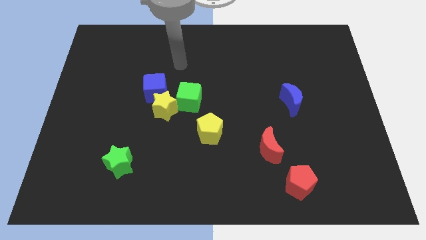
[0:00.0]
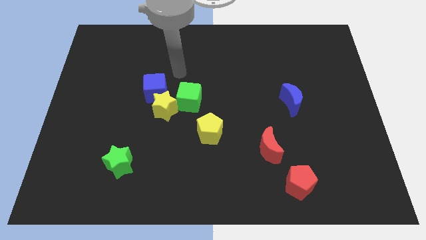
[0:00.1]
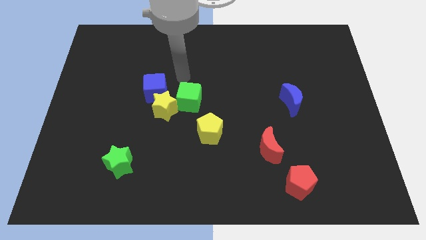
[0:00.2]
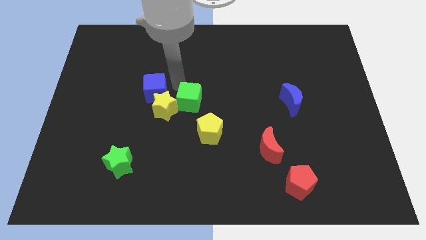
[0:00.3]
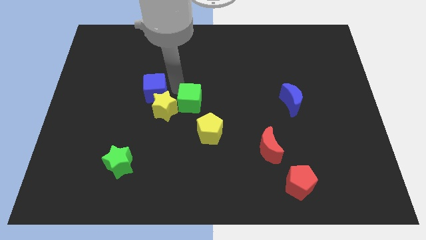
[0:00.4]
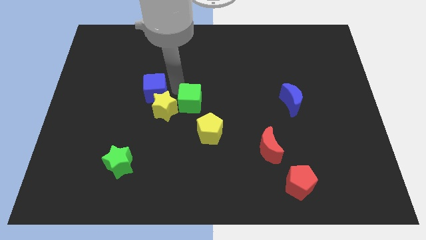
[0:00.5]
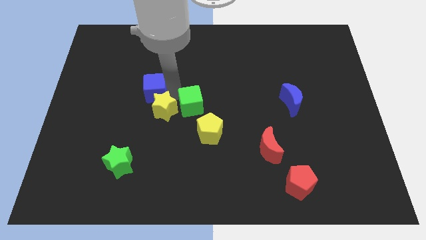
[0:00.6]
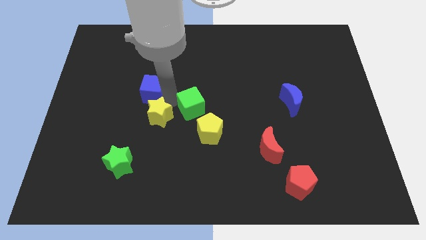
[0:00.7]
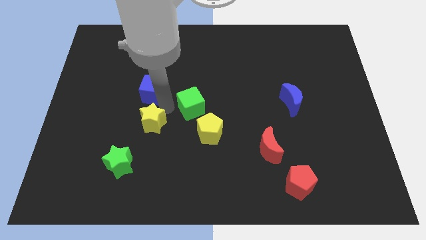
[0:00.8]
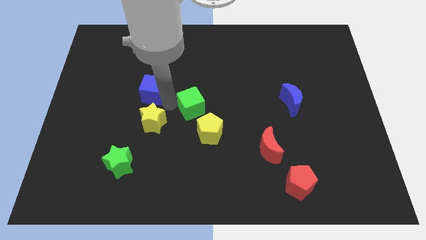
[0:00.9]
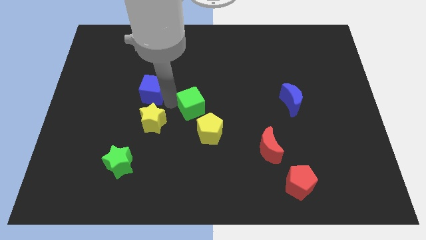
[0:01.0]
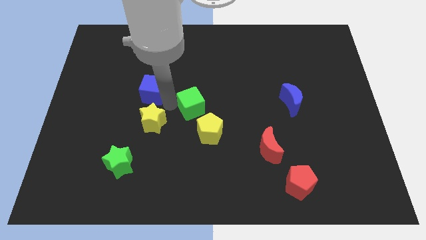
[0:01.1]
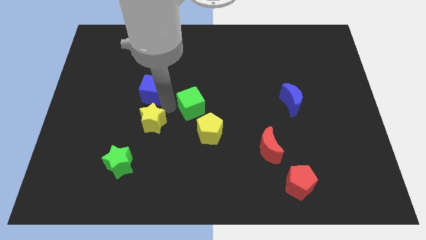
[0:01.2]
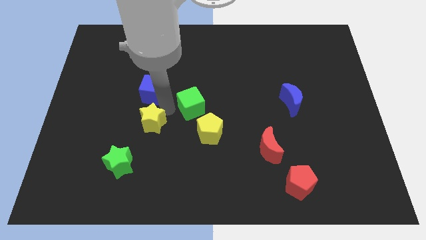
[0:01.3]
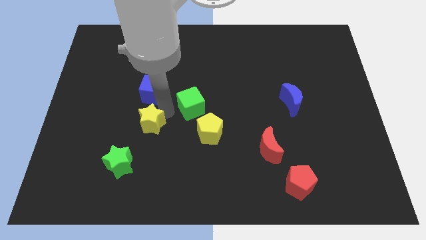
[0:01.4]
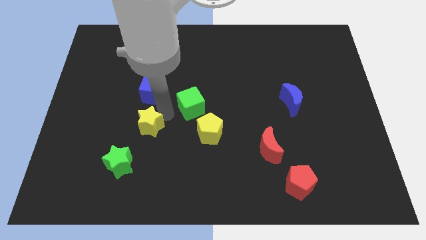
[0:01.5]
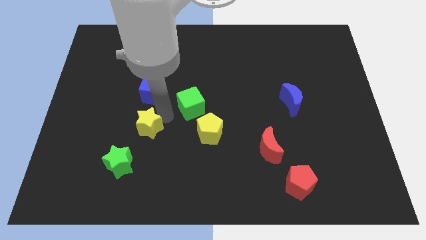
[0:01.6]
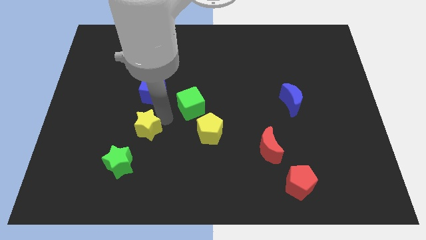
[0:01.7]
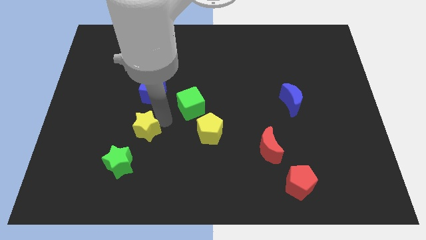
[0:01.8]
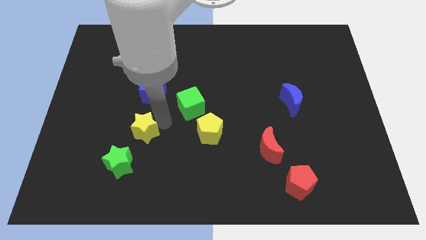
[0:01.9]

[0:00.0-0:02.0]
separate the yellow star from the blue cube and green cube

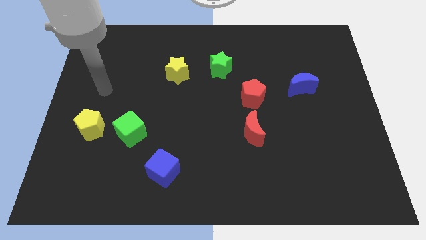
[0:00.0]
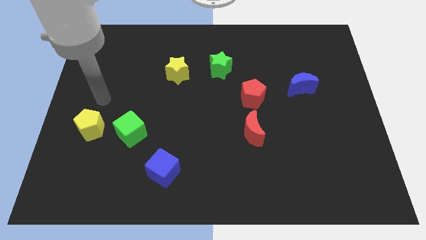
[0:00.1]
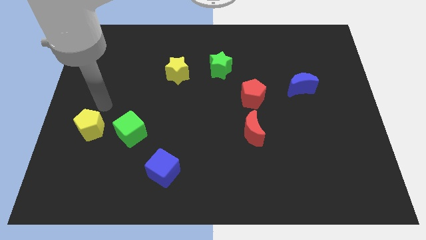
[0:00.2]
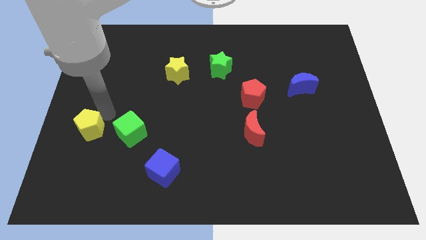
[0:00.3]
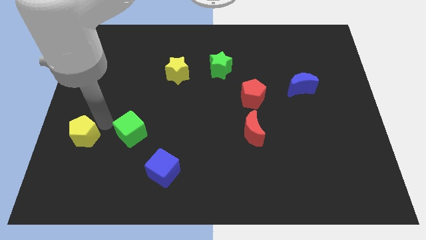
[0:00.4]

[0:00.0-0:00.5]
move the green cube away from the yellow pentagon

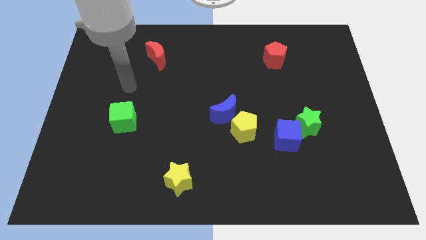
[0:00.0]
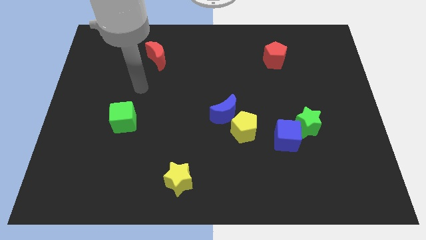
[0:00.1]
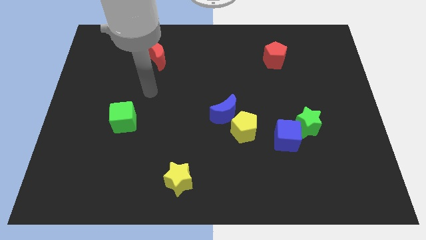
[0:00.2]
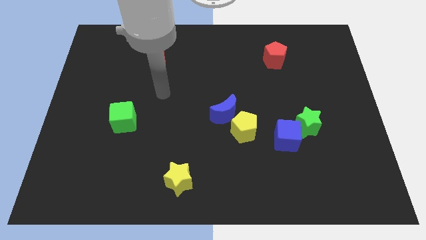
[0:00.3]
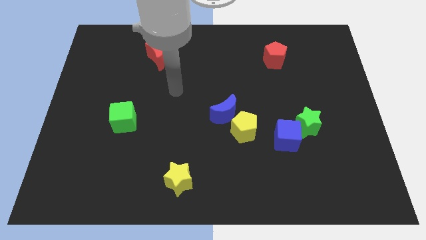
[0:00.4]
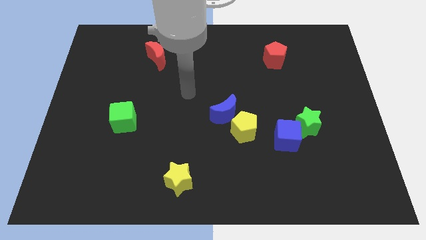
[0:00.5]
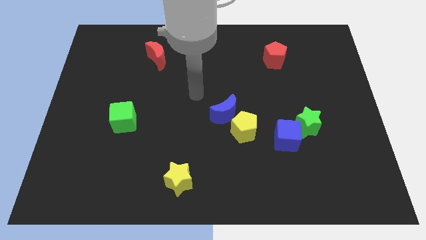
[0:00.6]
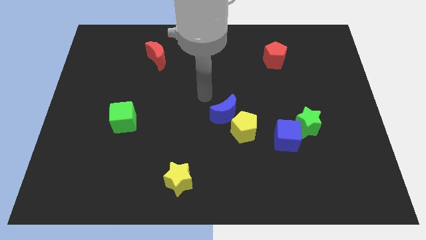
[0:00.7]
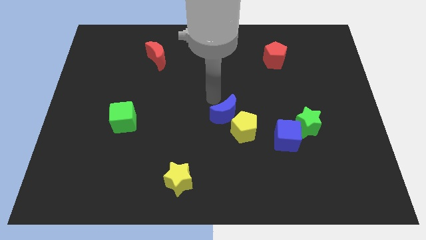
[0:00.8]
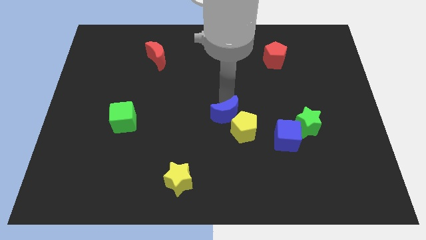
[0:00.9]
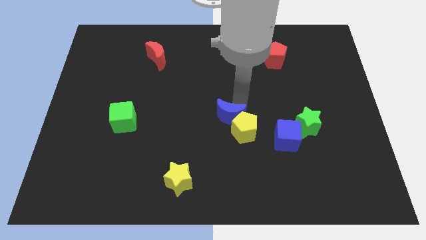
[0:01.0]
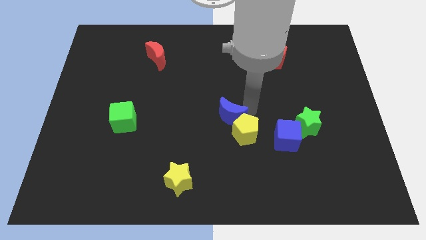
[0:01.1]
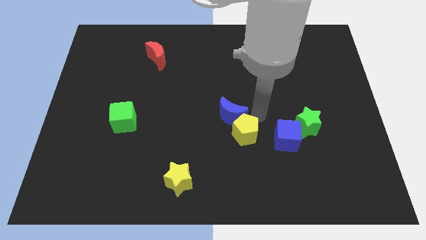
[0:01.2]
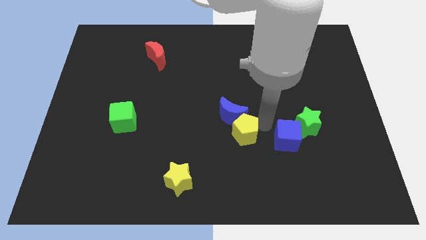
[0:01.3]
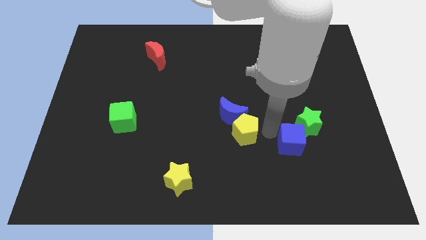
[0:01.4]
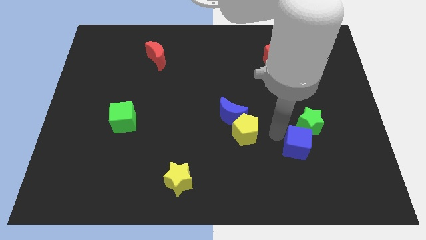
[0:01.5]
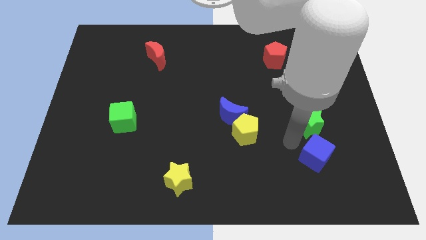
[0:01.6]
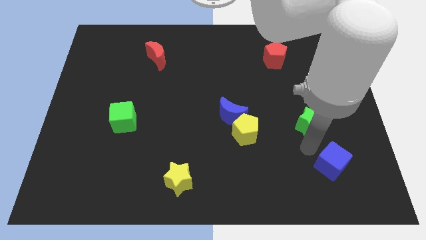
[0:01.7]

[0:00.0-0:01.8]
move the green star away from the blue cube

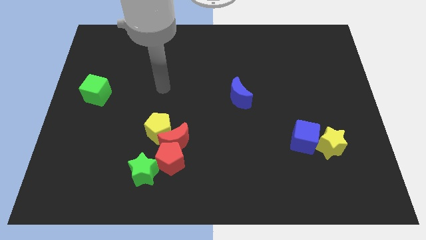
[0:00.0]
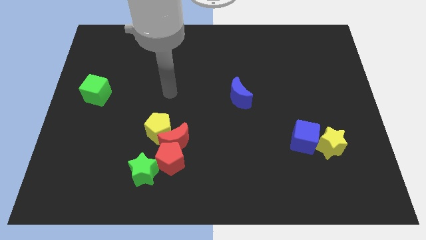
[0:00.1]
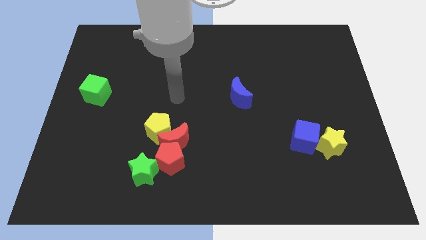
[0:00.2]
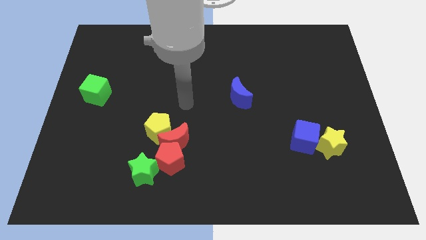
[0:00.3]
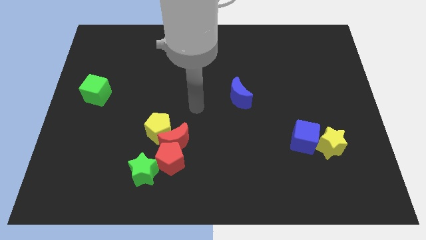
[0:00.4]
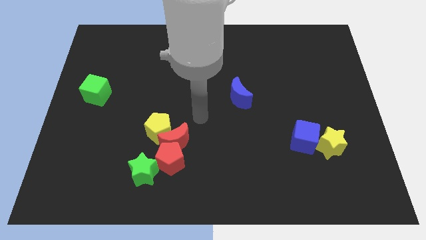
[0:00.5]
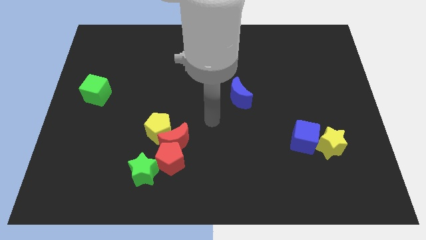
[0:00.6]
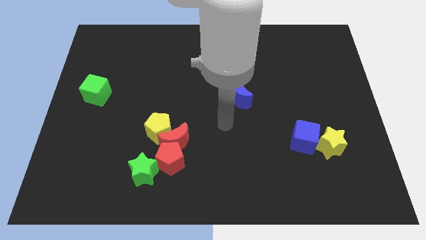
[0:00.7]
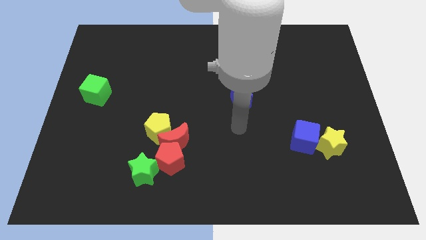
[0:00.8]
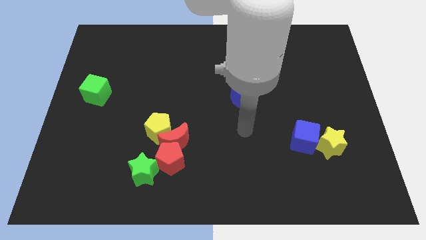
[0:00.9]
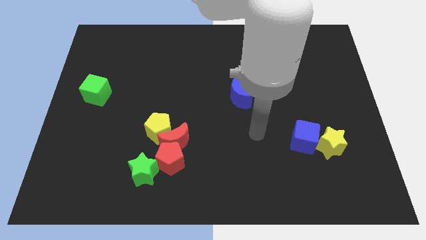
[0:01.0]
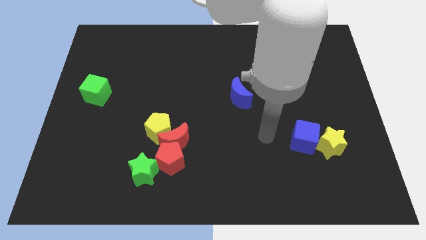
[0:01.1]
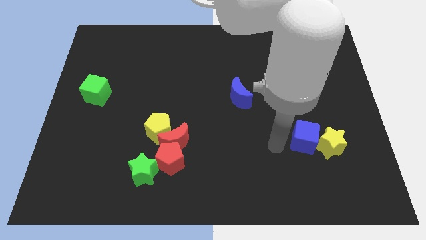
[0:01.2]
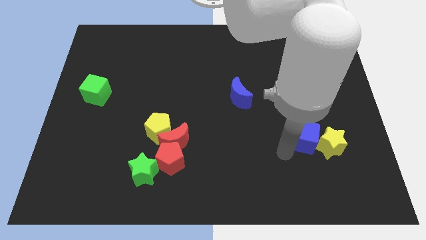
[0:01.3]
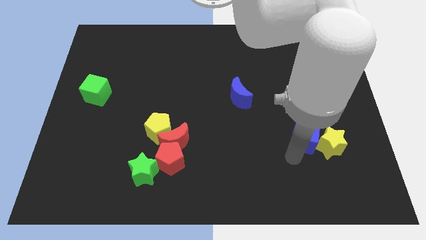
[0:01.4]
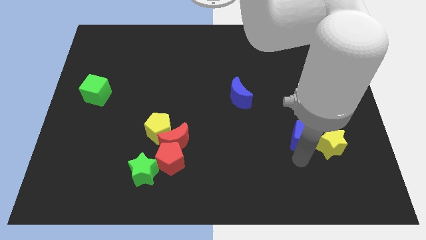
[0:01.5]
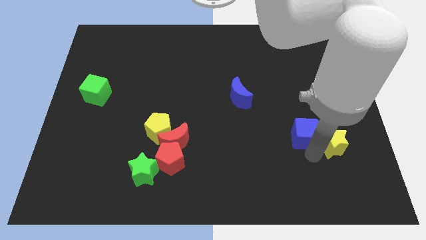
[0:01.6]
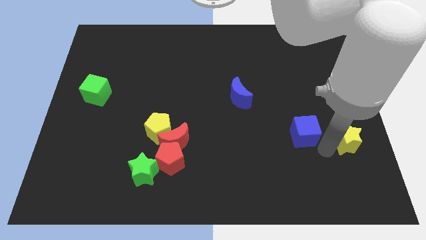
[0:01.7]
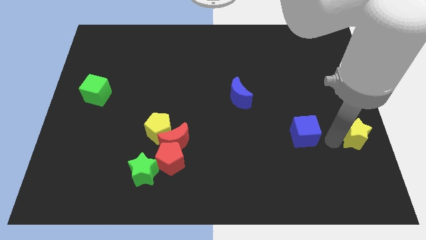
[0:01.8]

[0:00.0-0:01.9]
move the blue cube away from the yellow star

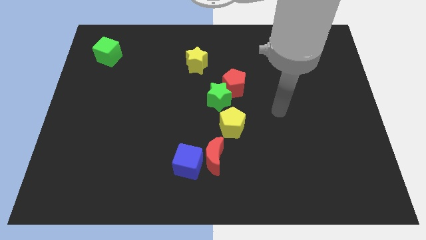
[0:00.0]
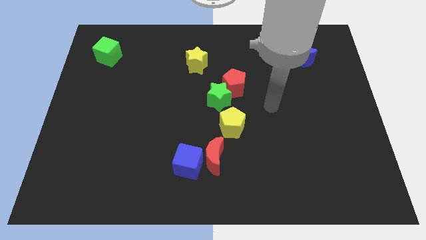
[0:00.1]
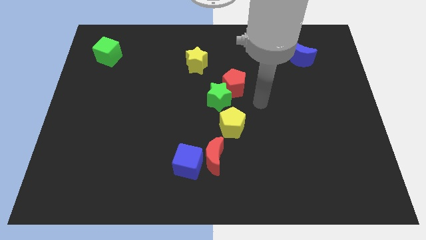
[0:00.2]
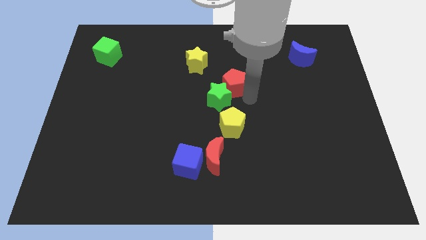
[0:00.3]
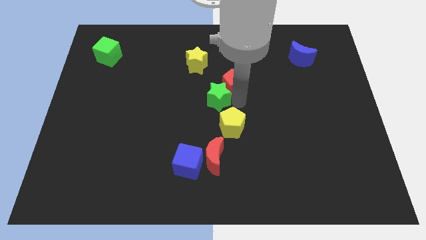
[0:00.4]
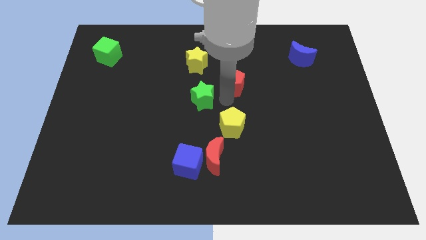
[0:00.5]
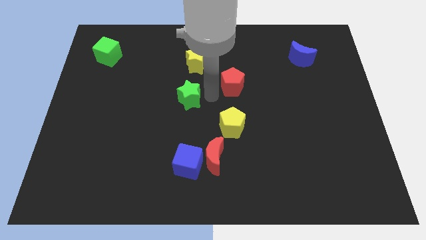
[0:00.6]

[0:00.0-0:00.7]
move the red pentagon away from the green star

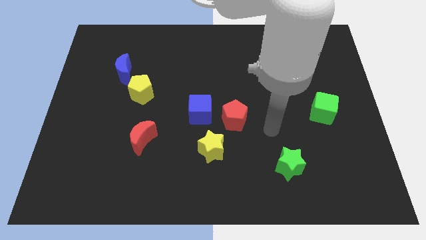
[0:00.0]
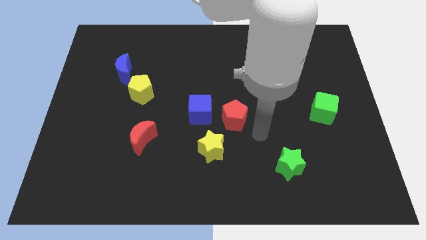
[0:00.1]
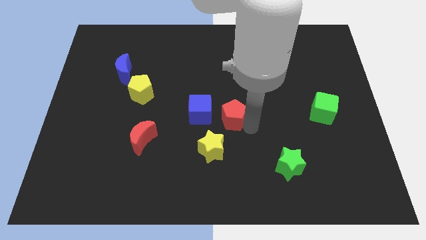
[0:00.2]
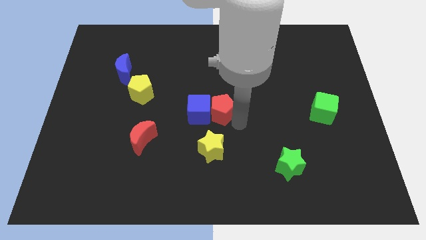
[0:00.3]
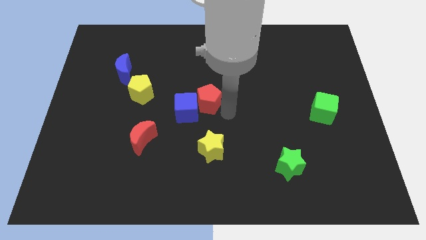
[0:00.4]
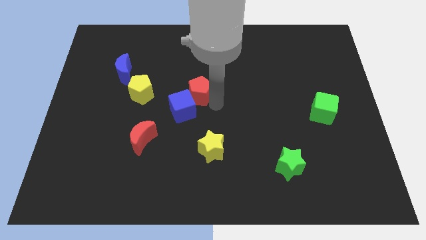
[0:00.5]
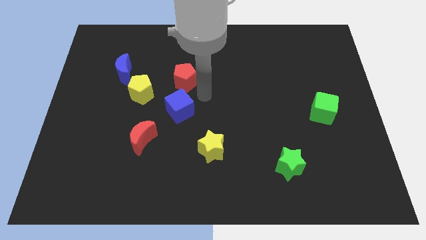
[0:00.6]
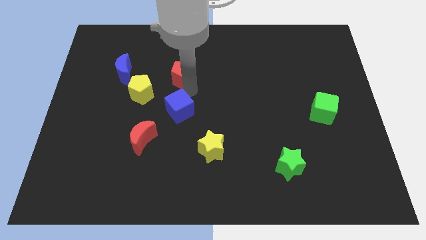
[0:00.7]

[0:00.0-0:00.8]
separate the blue cube from the red pentagon

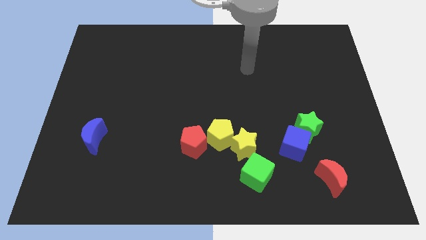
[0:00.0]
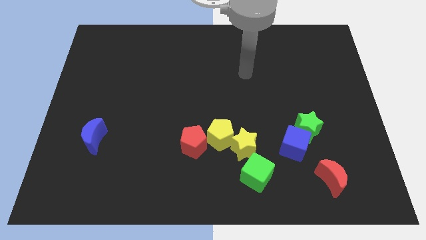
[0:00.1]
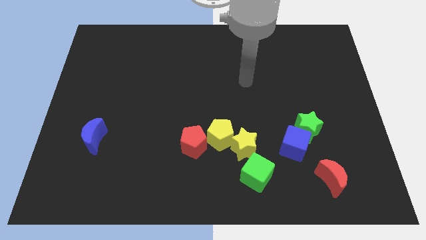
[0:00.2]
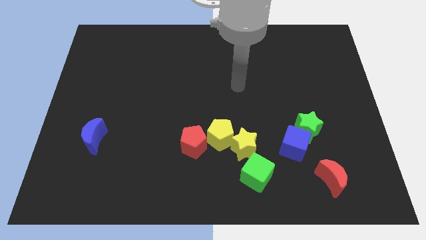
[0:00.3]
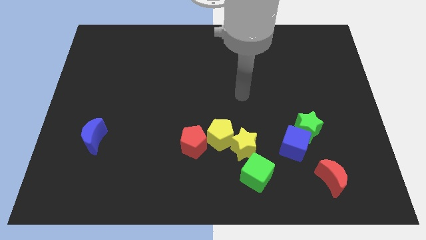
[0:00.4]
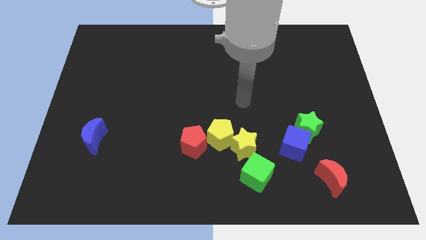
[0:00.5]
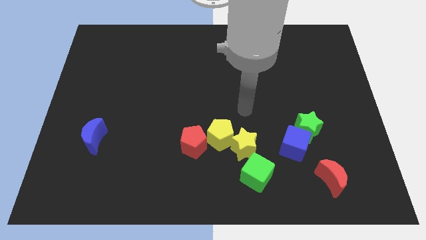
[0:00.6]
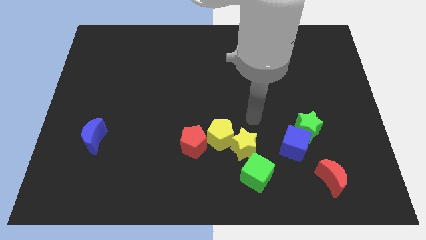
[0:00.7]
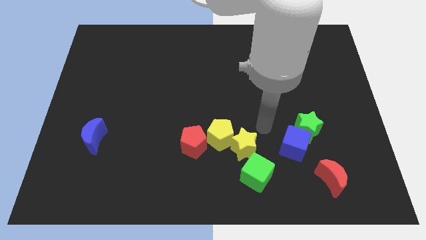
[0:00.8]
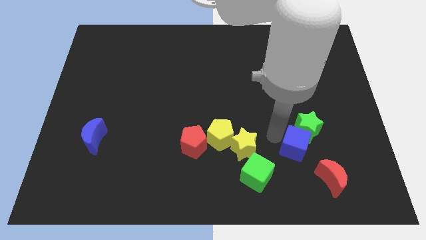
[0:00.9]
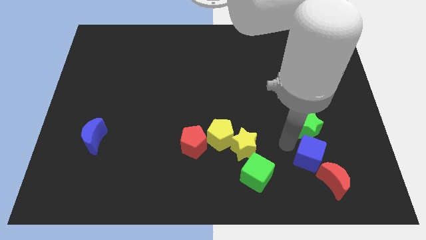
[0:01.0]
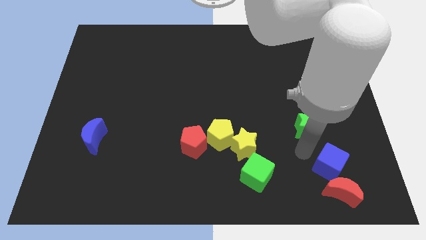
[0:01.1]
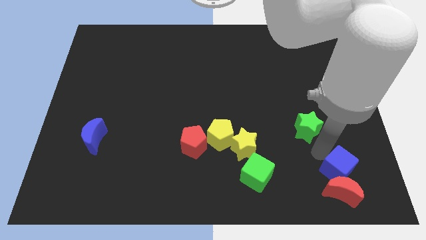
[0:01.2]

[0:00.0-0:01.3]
separate the green star from the blue cube

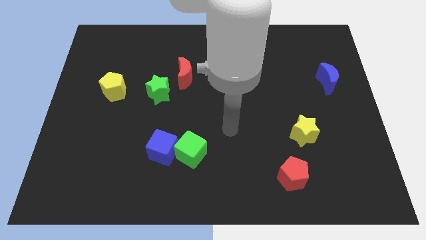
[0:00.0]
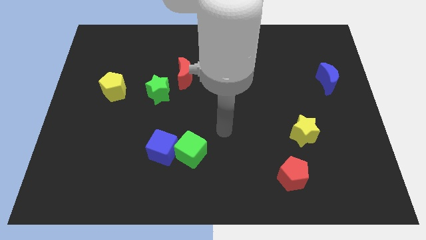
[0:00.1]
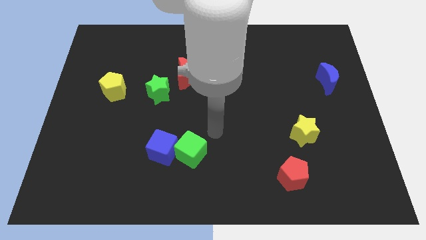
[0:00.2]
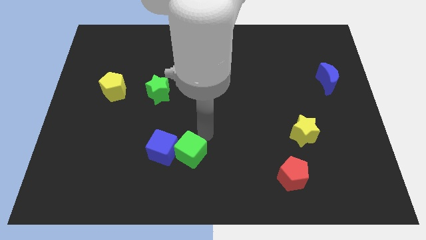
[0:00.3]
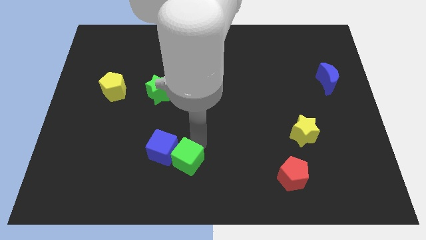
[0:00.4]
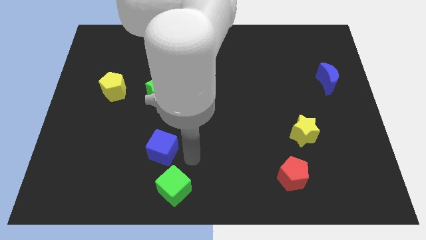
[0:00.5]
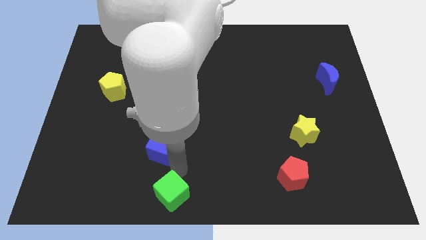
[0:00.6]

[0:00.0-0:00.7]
pull the blue cube apart from the green cube
